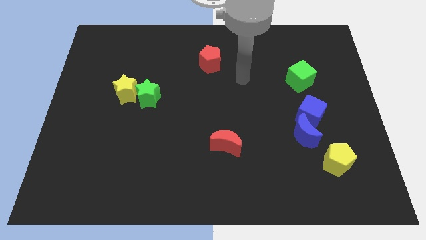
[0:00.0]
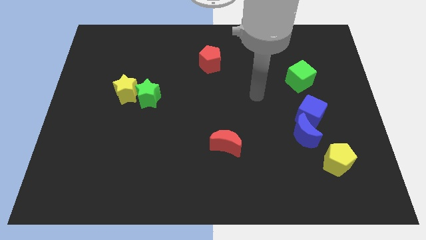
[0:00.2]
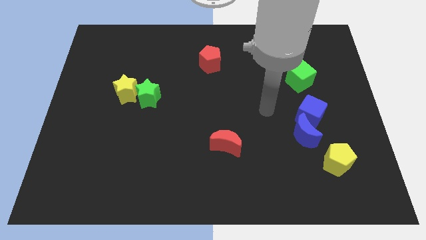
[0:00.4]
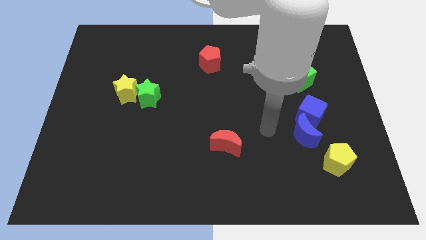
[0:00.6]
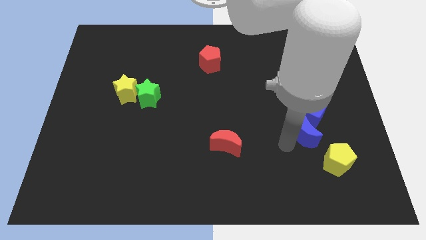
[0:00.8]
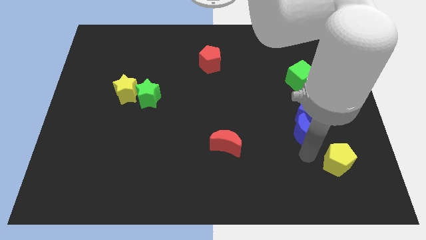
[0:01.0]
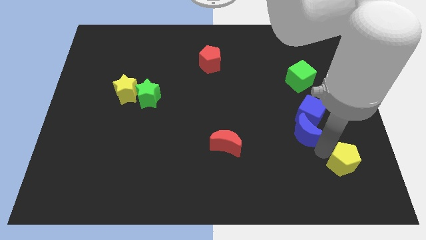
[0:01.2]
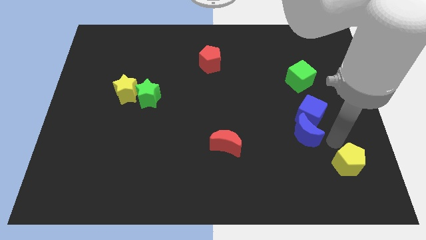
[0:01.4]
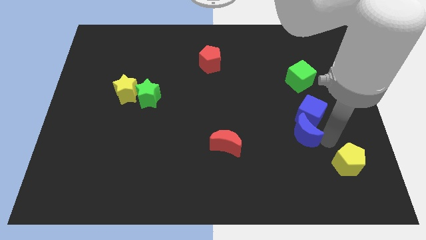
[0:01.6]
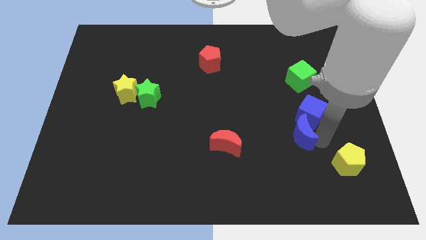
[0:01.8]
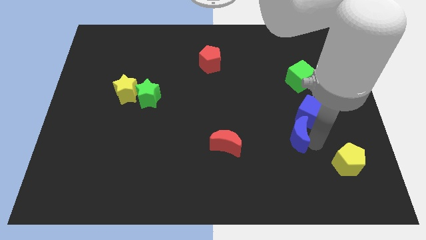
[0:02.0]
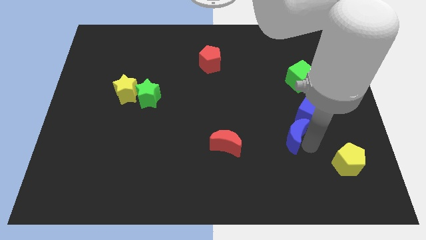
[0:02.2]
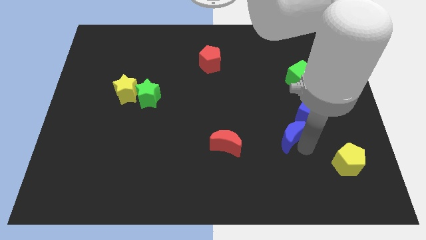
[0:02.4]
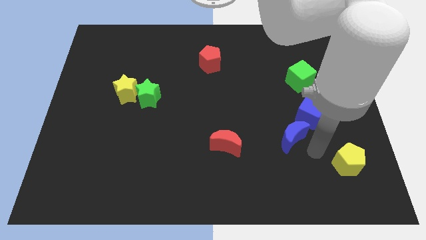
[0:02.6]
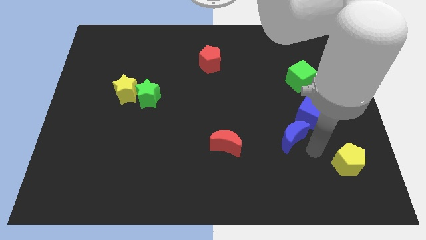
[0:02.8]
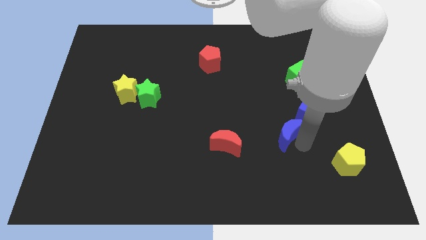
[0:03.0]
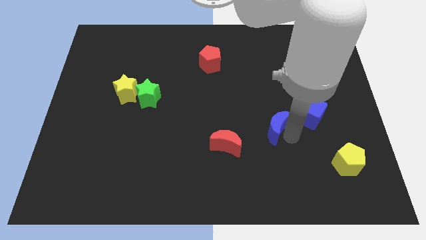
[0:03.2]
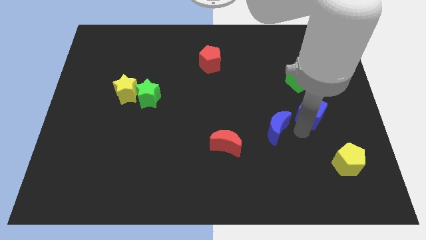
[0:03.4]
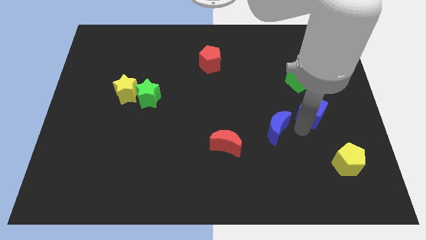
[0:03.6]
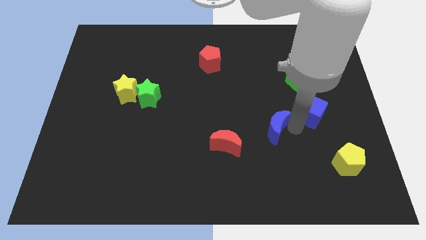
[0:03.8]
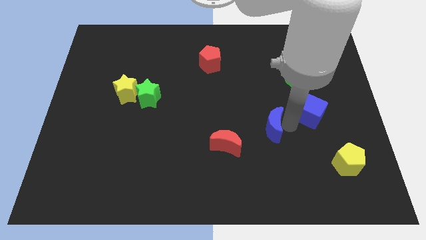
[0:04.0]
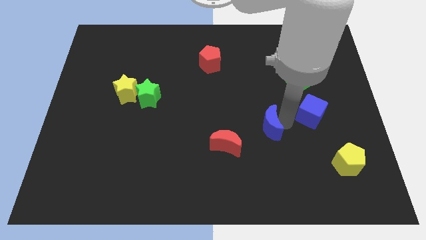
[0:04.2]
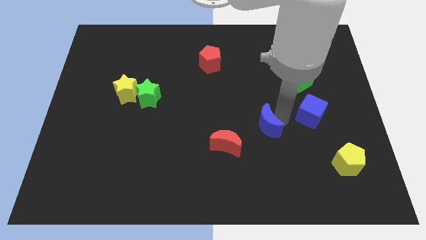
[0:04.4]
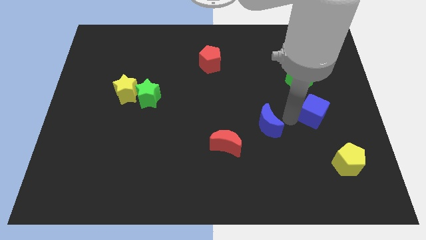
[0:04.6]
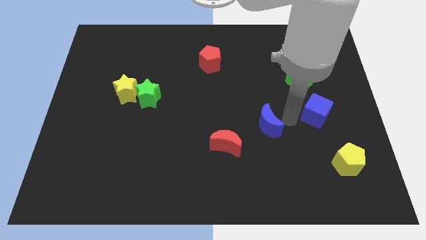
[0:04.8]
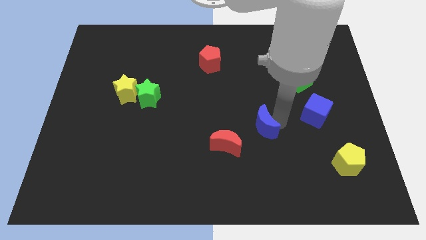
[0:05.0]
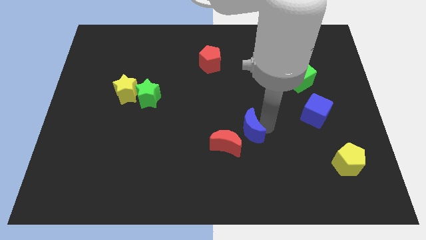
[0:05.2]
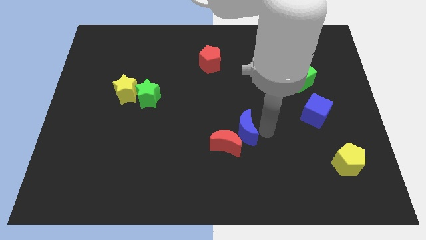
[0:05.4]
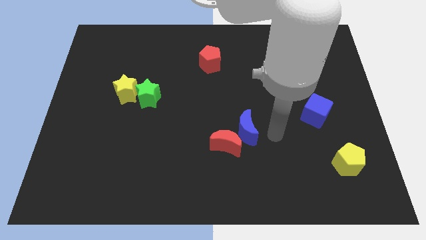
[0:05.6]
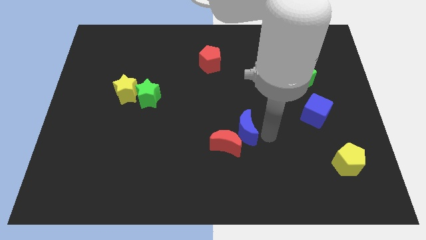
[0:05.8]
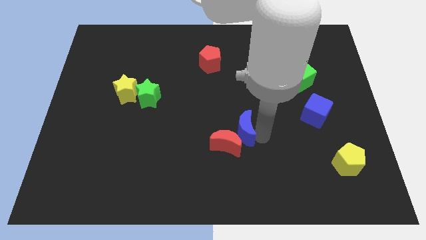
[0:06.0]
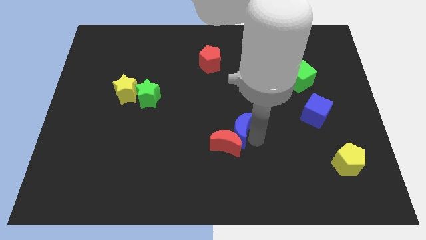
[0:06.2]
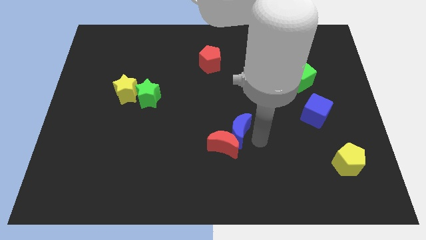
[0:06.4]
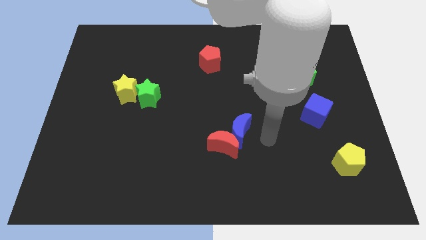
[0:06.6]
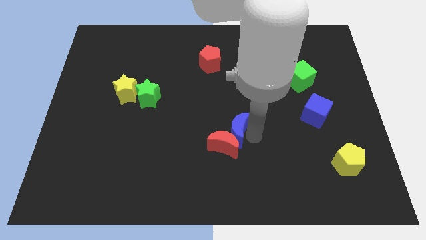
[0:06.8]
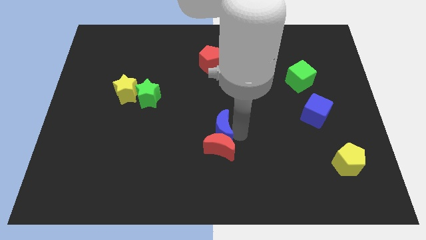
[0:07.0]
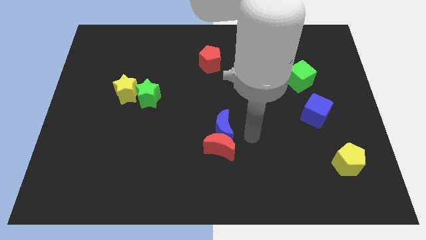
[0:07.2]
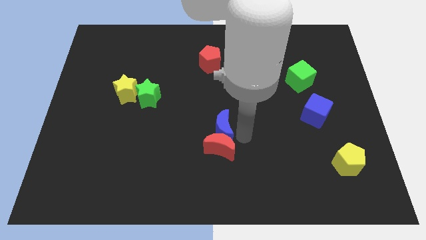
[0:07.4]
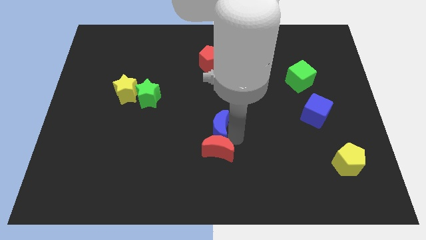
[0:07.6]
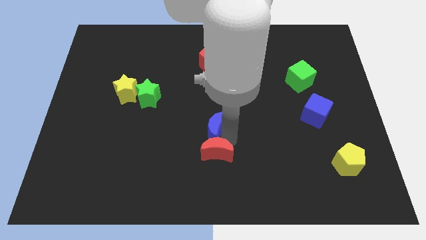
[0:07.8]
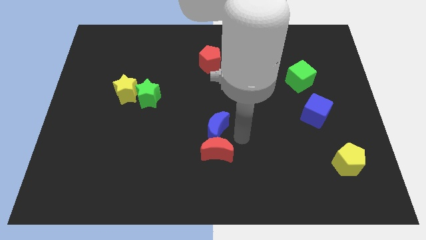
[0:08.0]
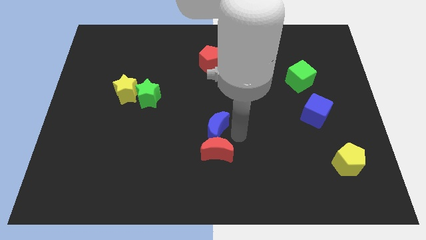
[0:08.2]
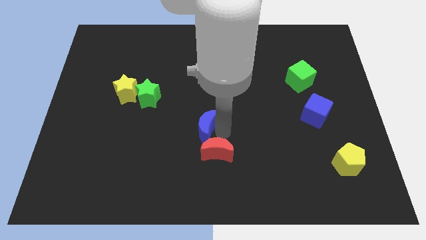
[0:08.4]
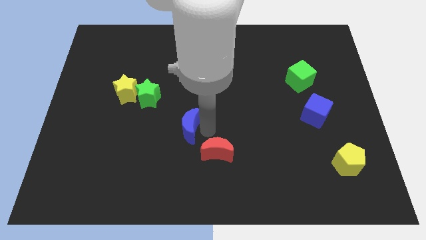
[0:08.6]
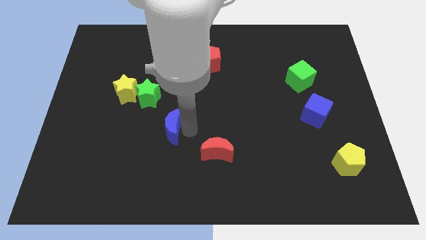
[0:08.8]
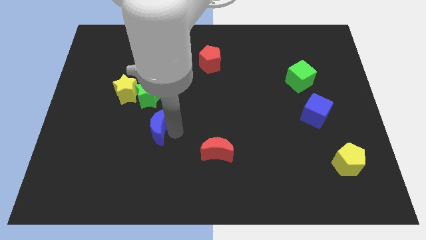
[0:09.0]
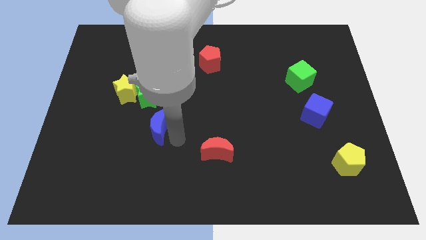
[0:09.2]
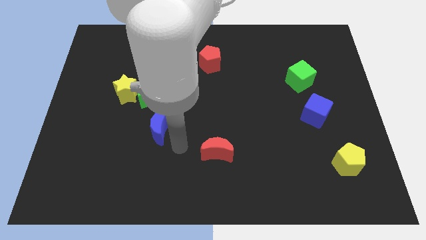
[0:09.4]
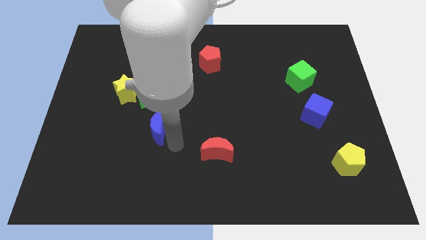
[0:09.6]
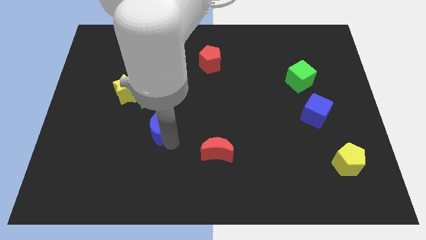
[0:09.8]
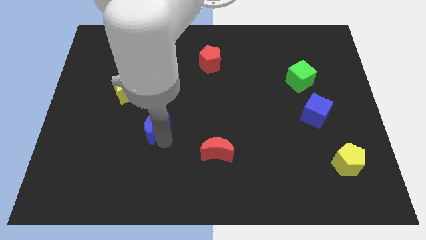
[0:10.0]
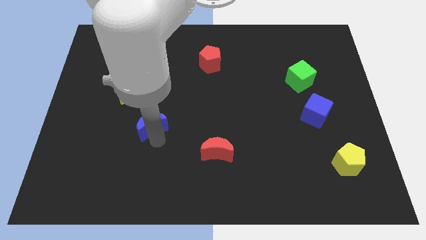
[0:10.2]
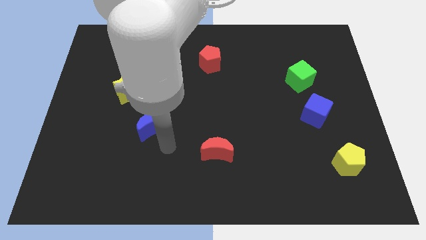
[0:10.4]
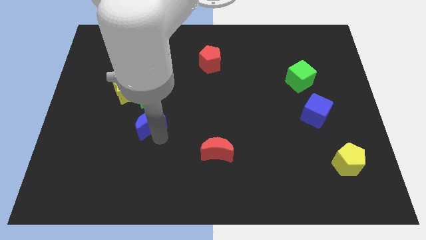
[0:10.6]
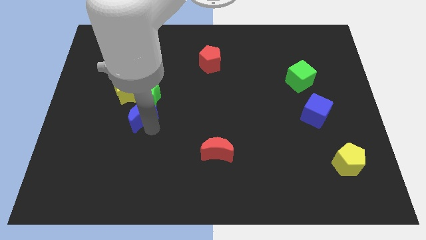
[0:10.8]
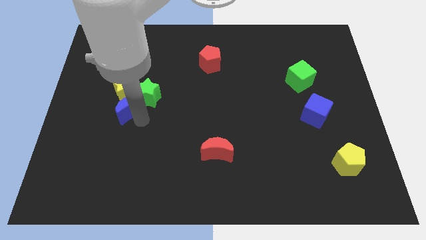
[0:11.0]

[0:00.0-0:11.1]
move the blue moon close to the yellow star

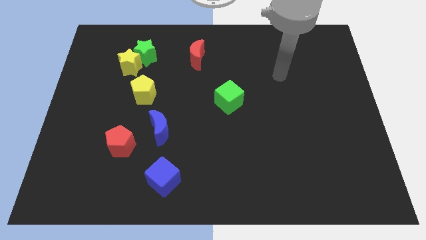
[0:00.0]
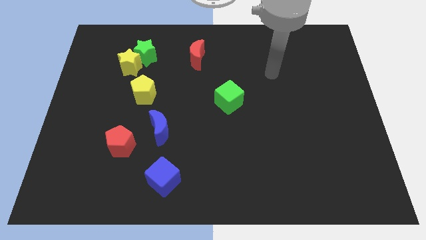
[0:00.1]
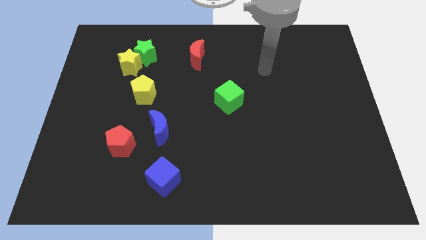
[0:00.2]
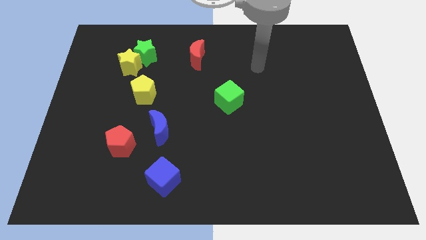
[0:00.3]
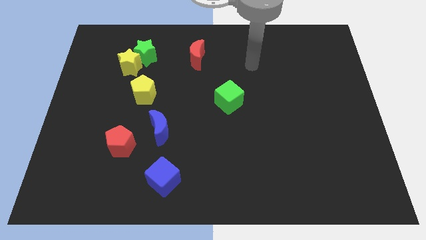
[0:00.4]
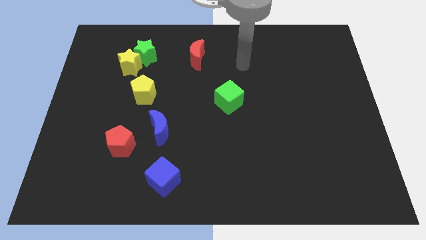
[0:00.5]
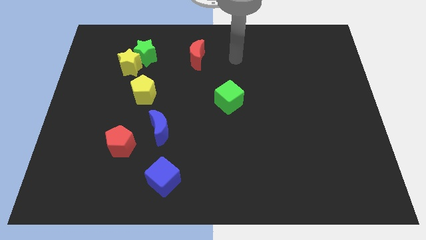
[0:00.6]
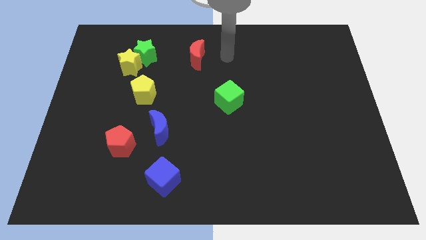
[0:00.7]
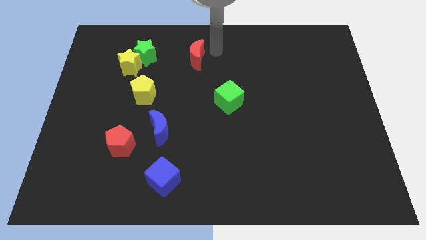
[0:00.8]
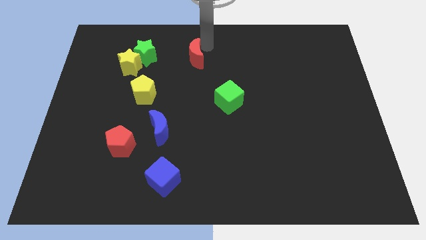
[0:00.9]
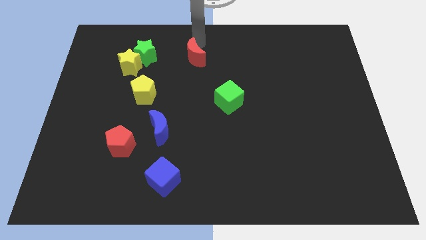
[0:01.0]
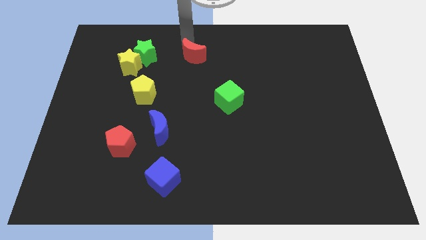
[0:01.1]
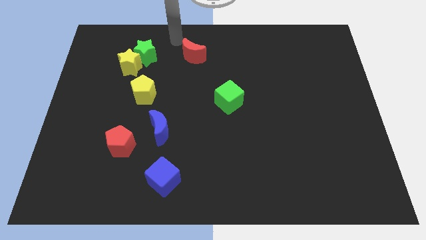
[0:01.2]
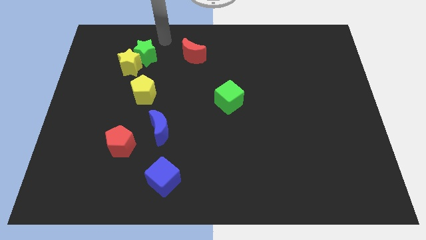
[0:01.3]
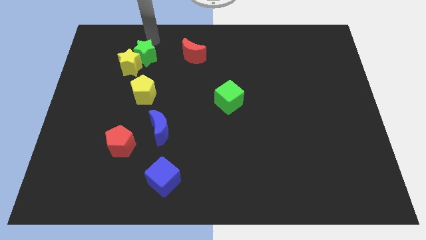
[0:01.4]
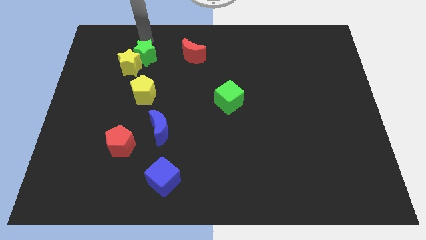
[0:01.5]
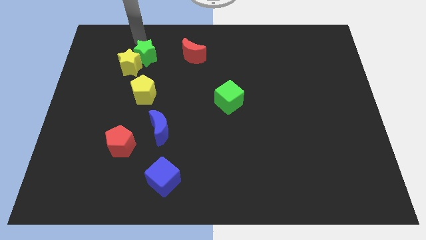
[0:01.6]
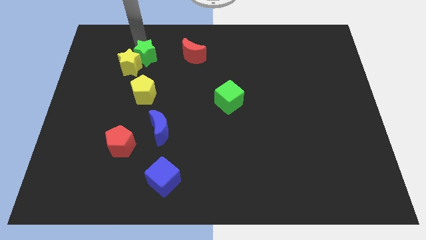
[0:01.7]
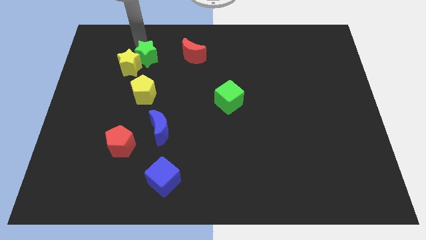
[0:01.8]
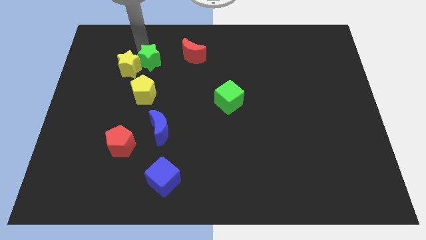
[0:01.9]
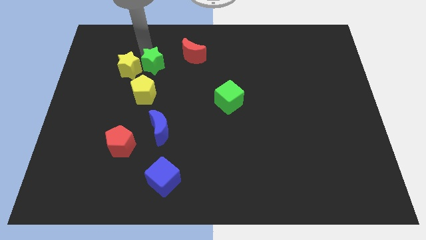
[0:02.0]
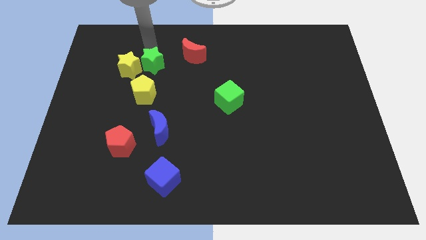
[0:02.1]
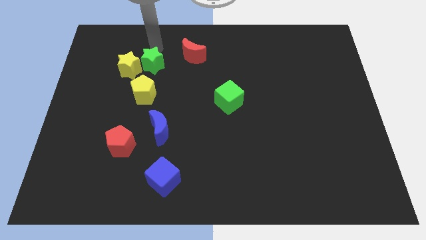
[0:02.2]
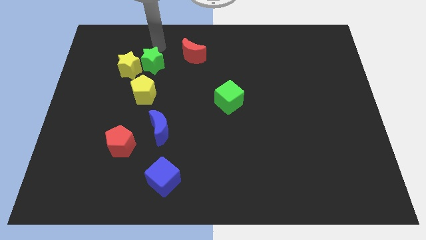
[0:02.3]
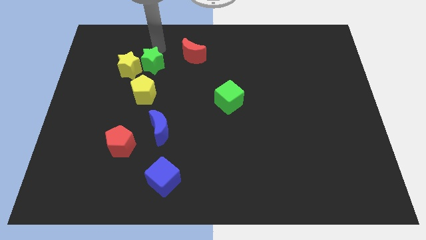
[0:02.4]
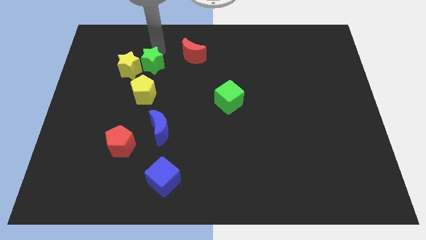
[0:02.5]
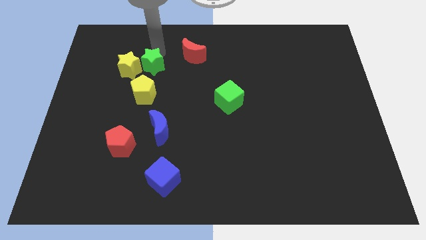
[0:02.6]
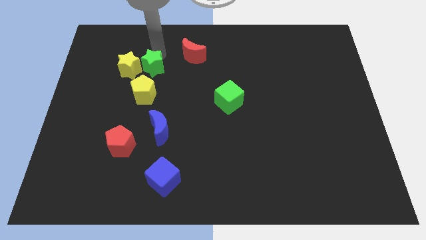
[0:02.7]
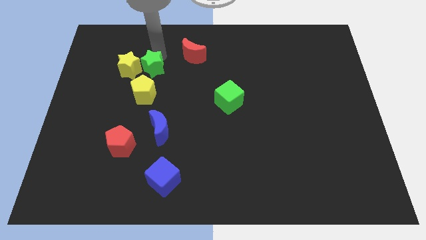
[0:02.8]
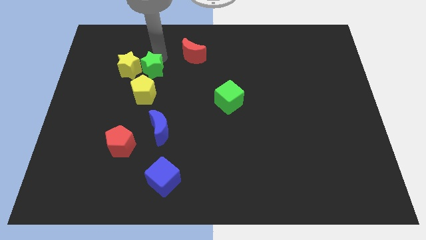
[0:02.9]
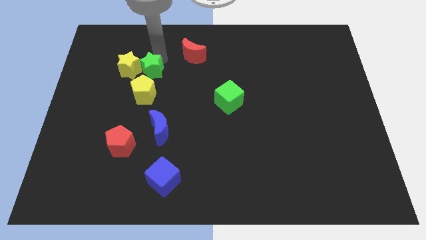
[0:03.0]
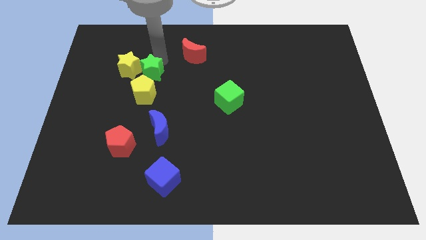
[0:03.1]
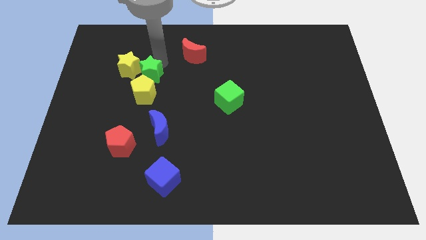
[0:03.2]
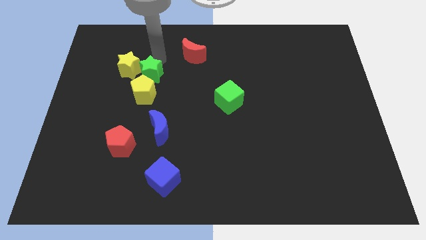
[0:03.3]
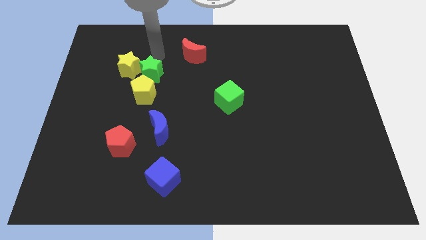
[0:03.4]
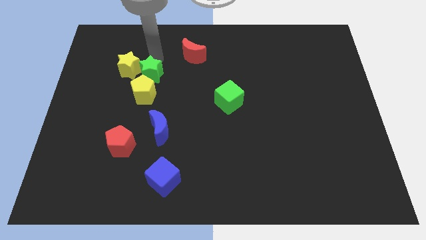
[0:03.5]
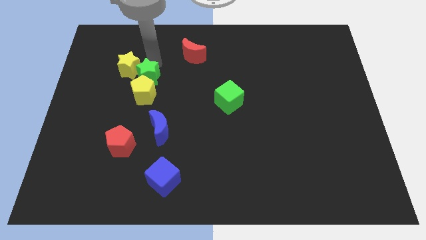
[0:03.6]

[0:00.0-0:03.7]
push the green star to the yellow pentagon
